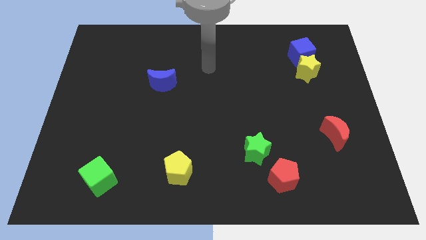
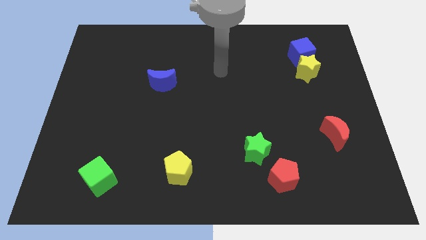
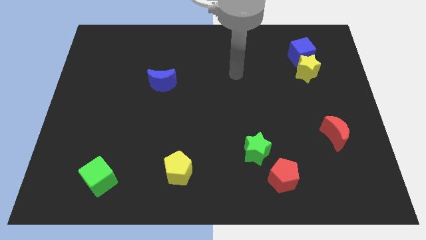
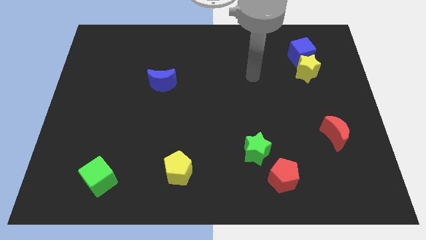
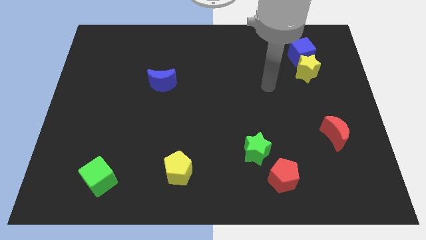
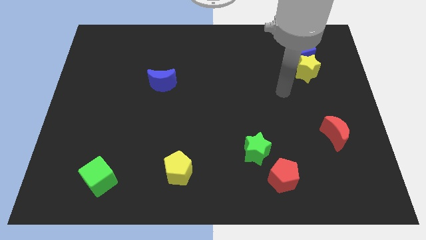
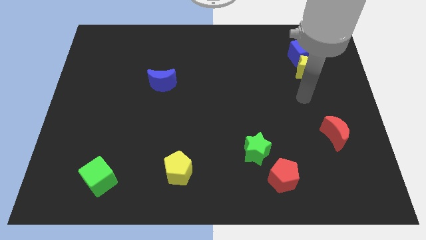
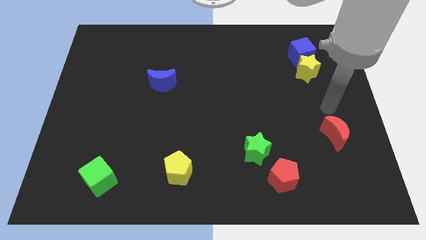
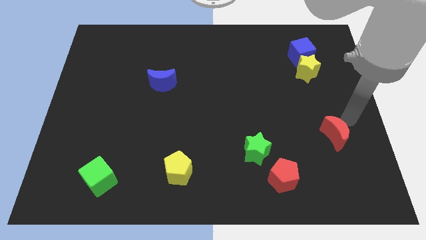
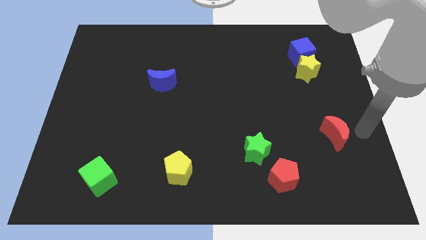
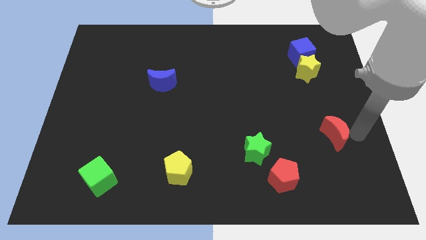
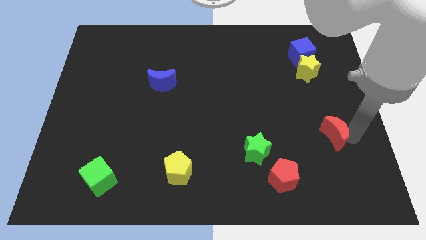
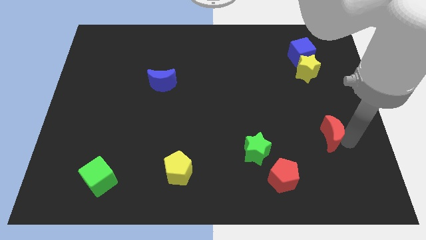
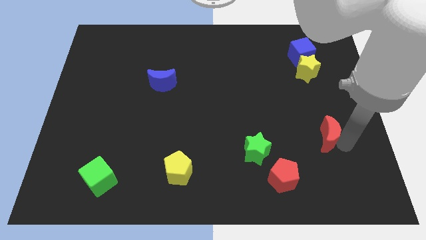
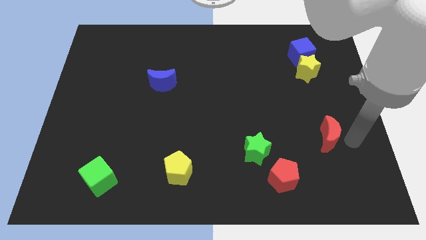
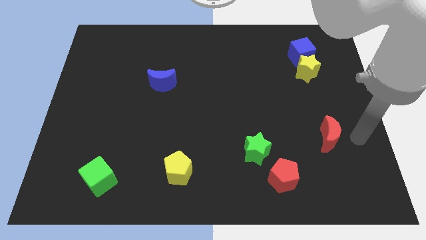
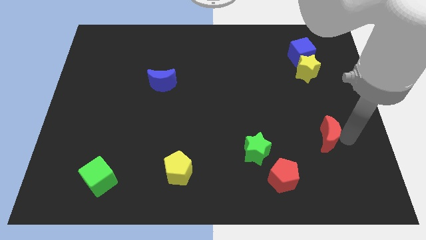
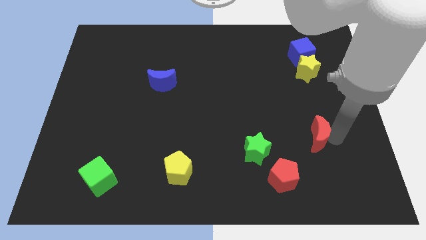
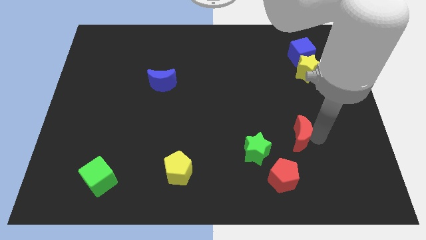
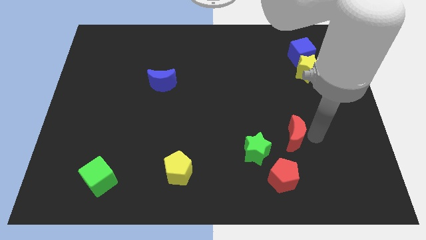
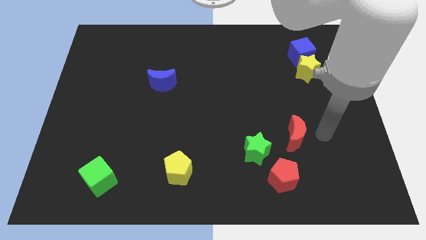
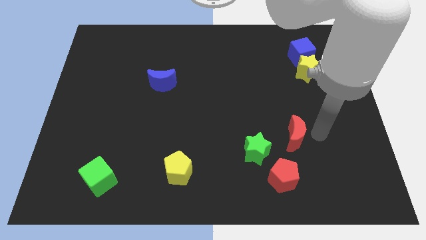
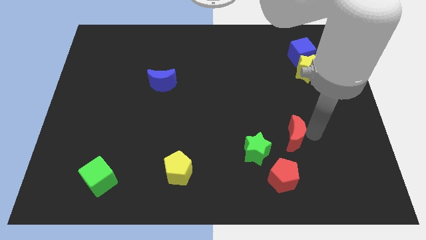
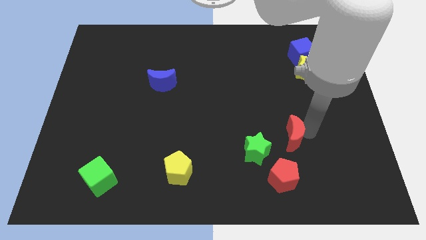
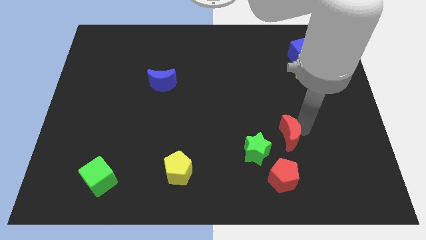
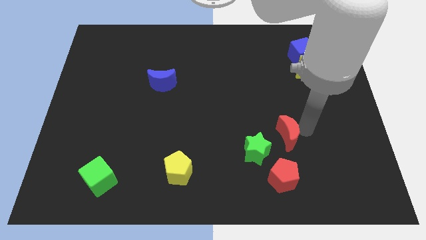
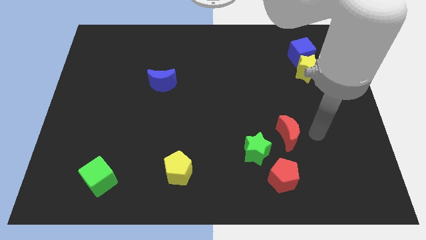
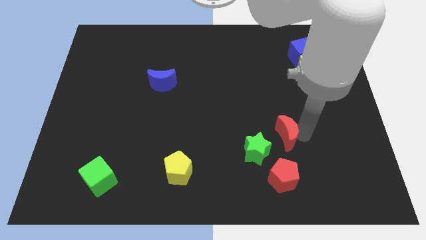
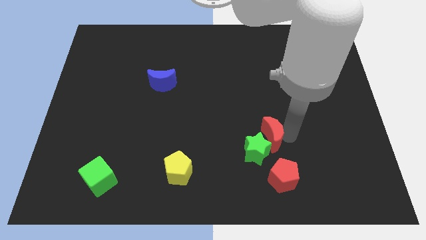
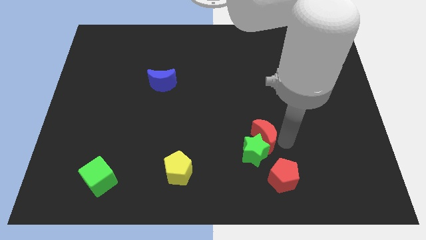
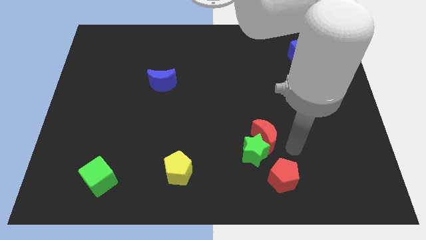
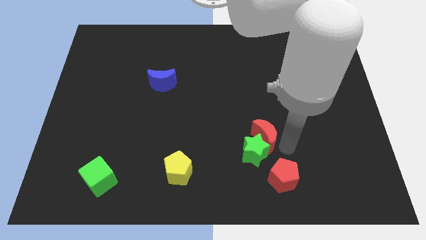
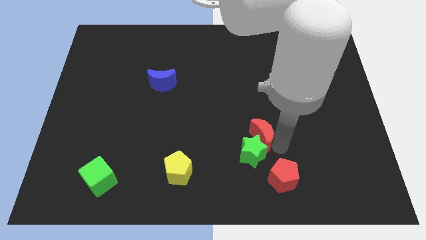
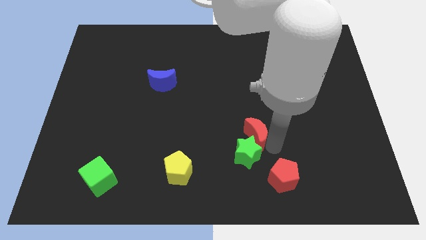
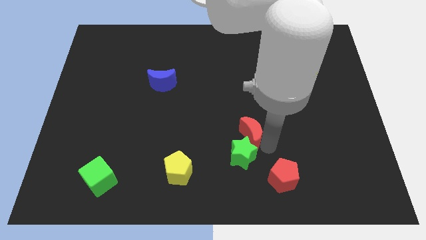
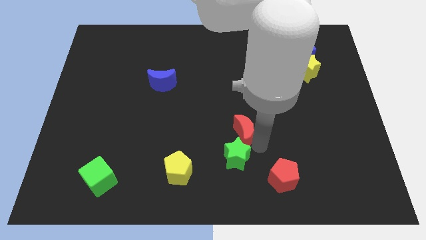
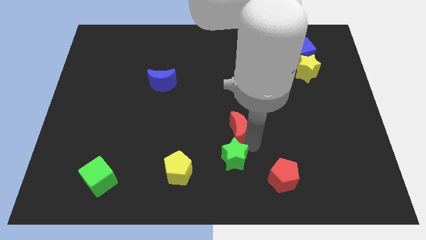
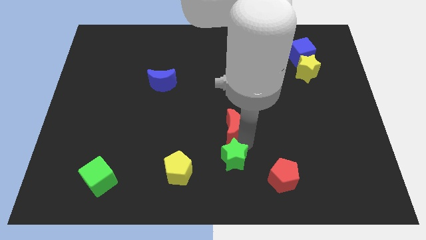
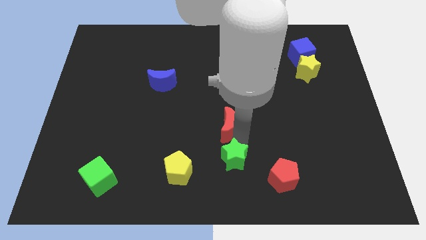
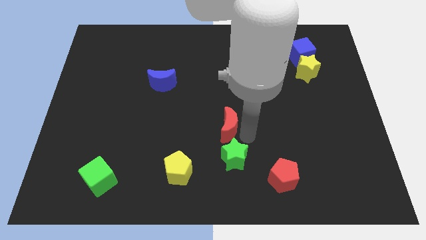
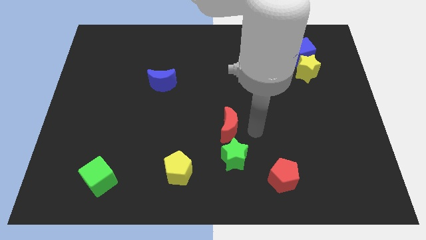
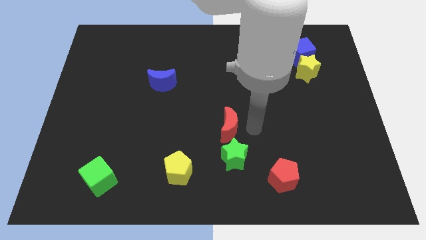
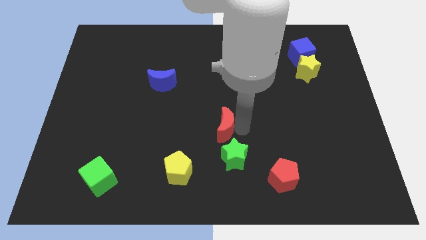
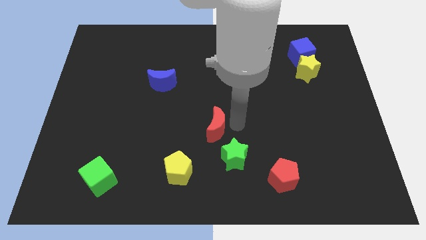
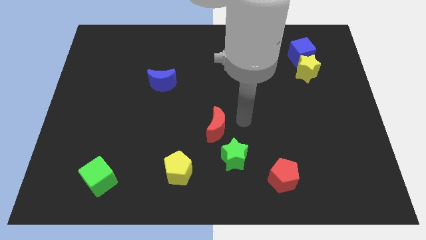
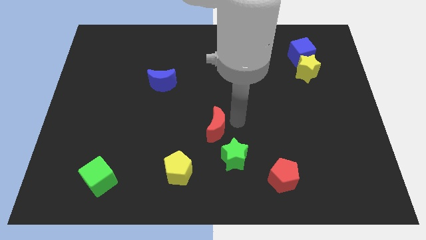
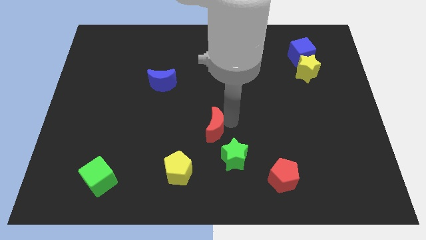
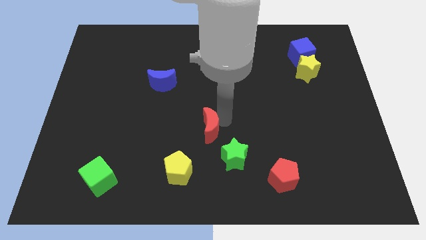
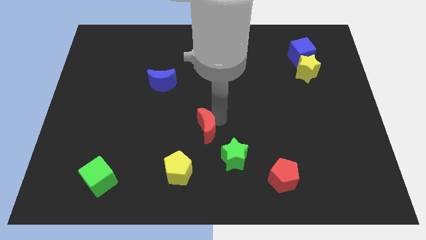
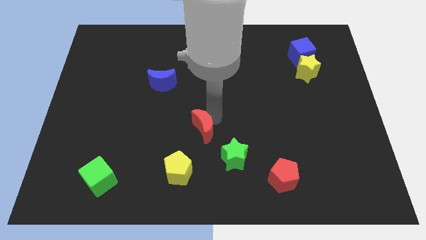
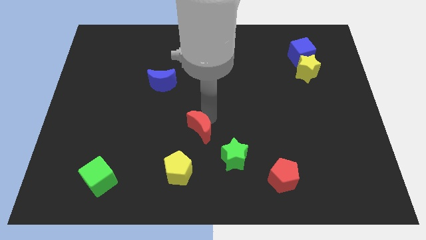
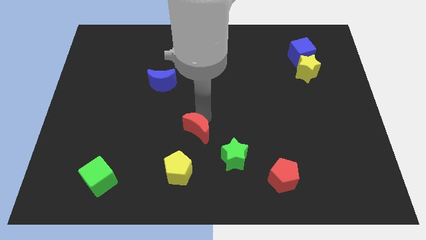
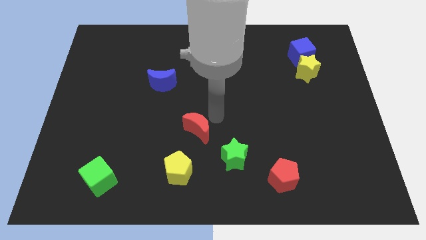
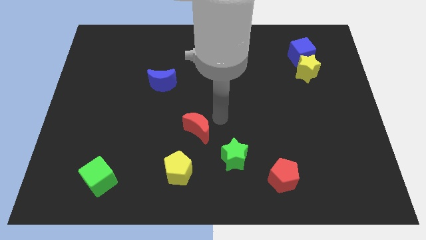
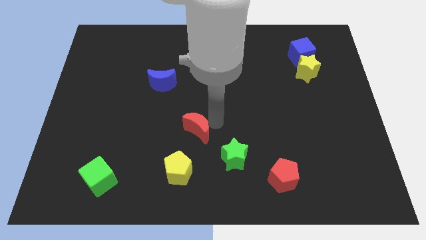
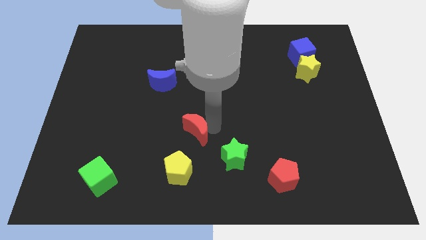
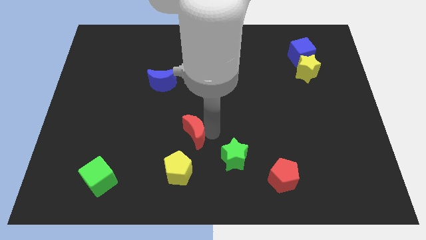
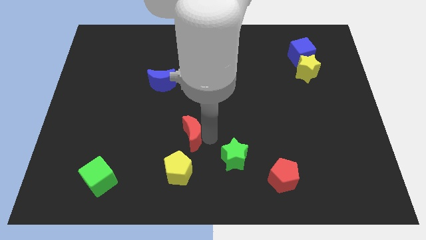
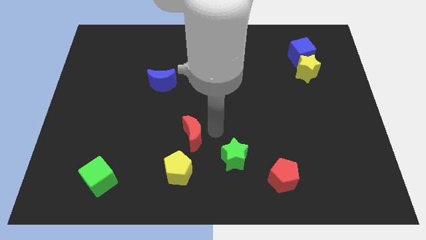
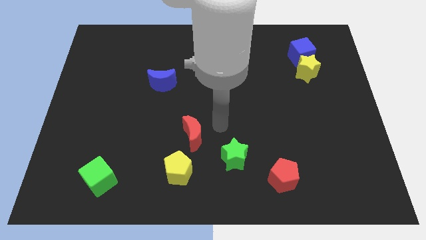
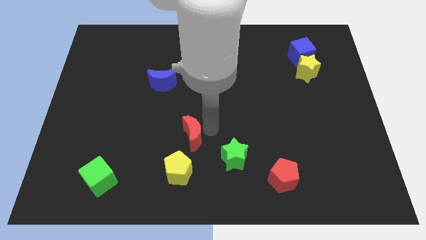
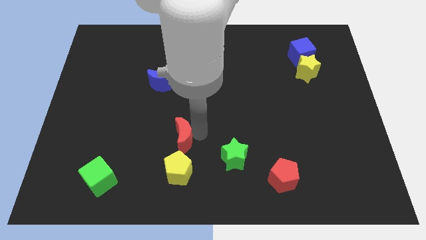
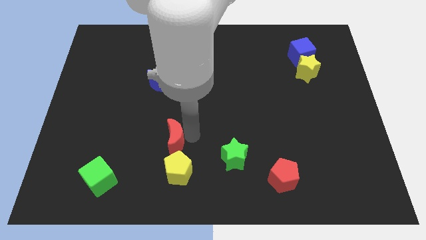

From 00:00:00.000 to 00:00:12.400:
move the red moon to the top left side of the yellow pentagon

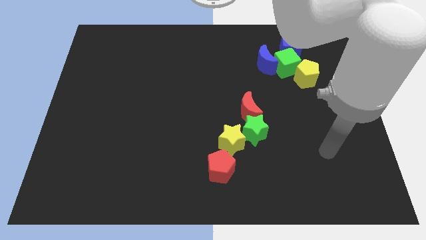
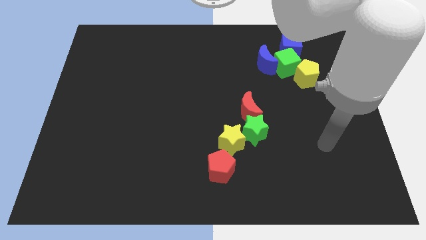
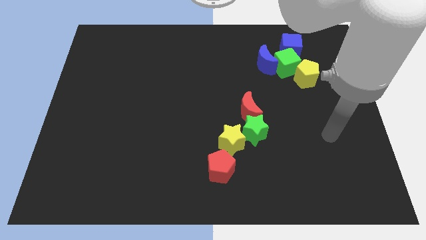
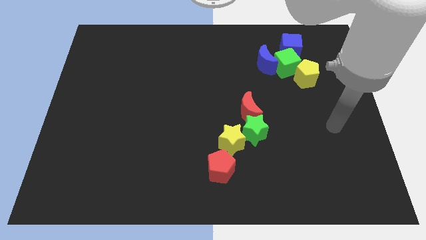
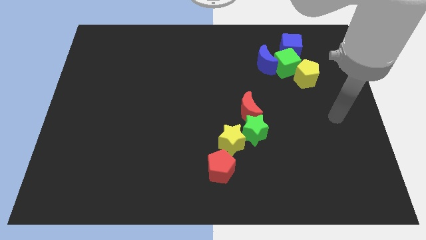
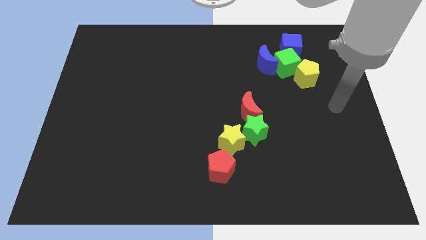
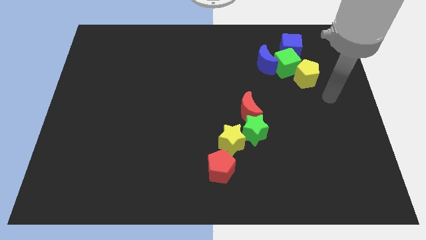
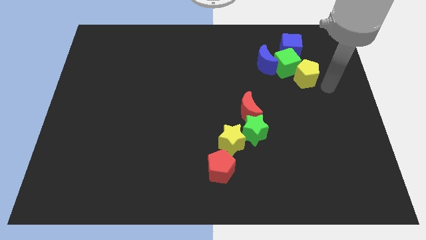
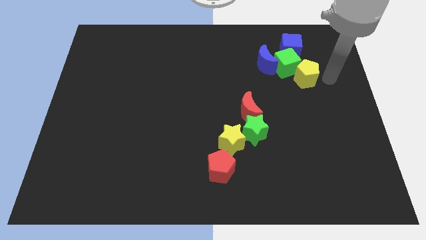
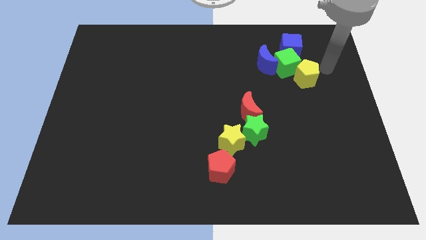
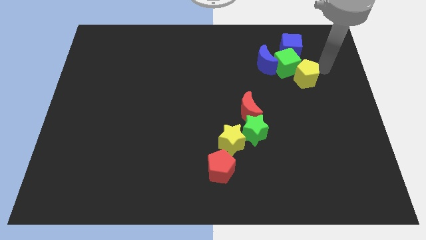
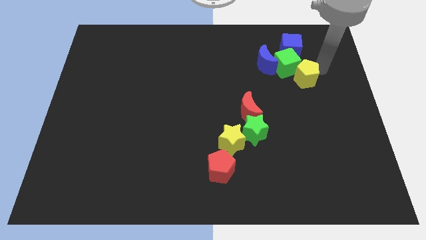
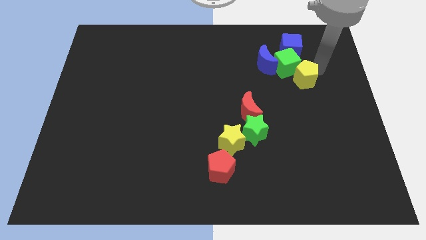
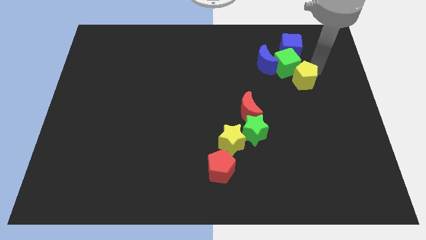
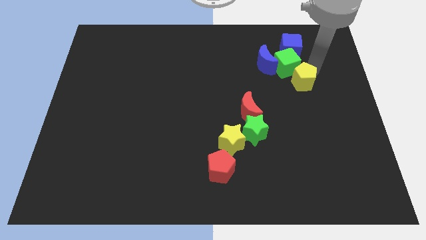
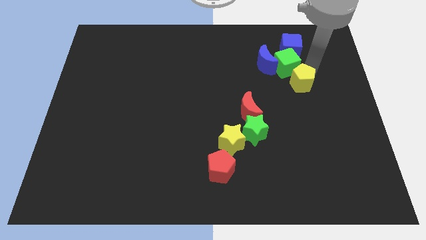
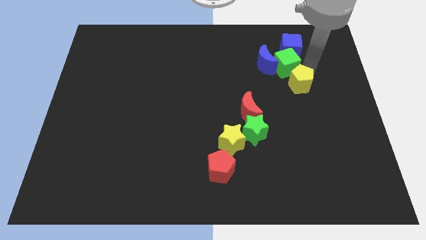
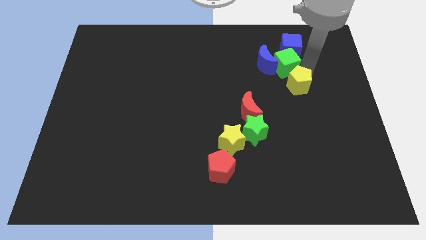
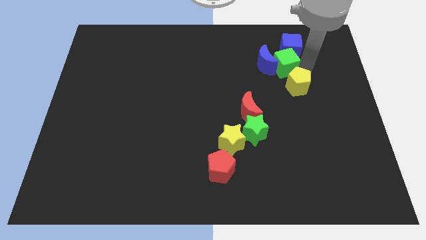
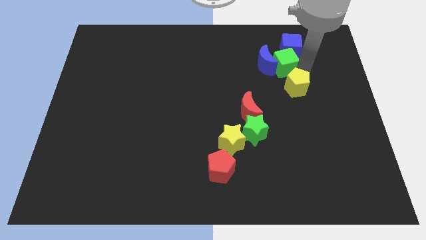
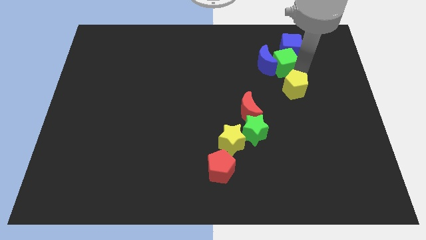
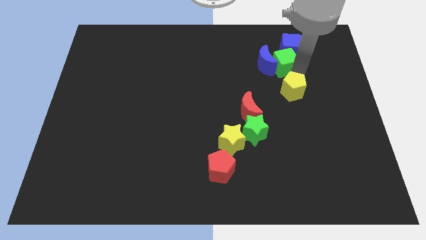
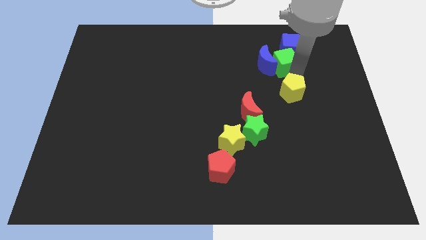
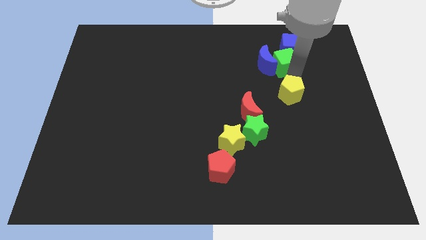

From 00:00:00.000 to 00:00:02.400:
put the yellow pentagon to the top right of the red moon
